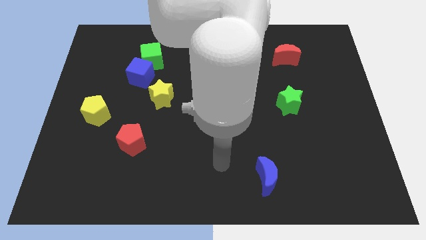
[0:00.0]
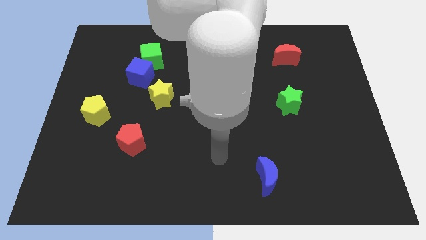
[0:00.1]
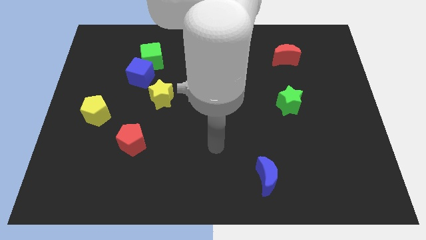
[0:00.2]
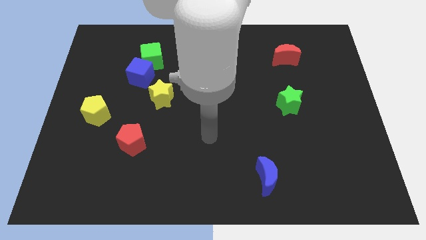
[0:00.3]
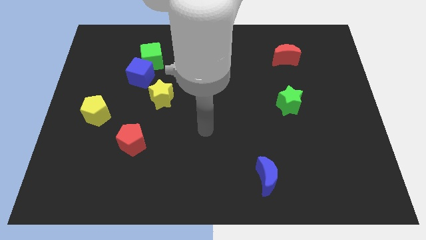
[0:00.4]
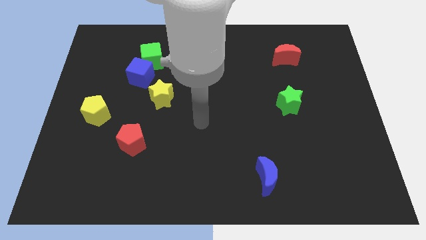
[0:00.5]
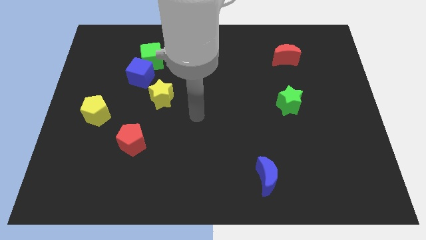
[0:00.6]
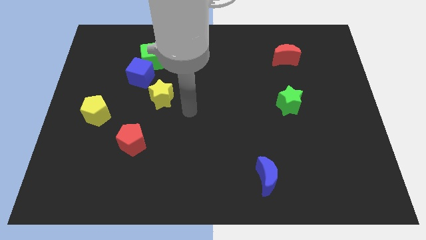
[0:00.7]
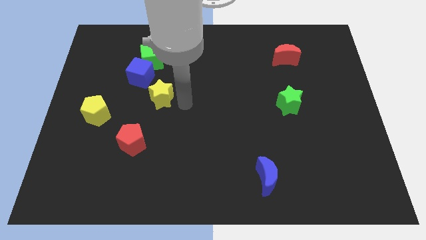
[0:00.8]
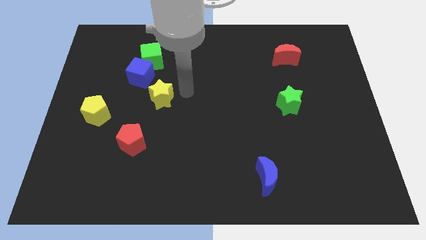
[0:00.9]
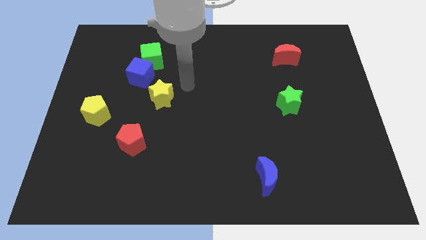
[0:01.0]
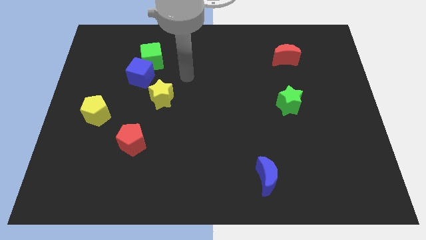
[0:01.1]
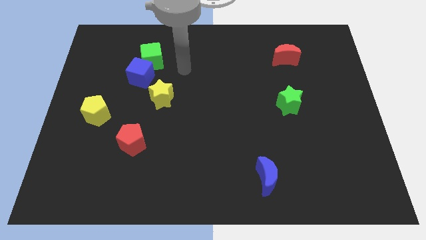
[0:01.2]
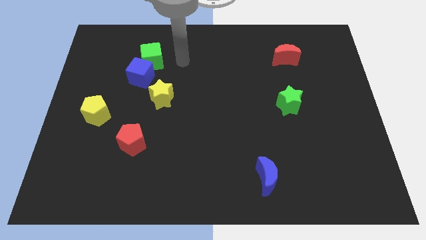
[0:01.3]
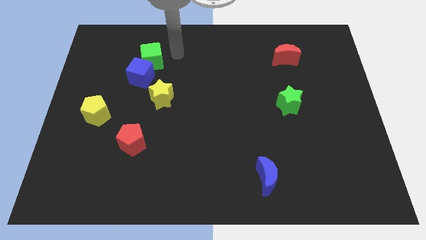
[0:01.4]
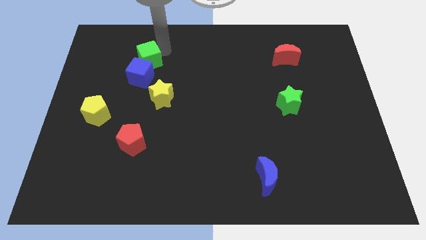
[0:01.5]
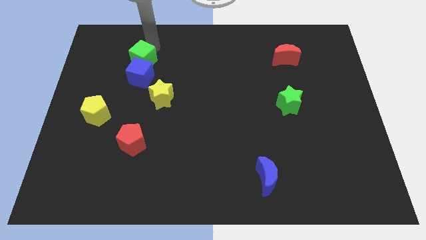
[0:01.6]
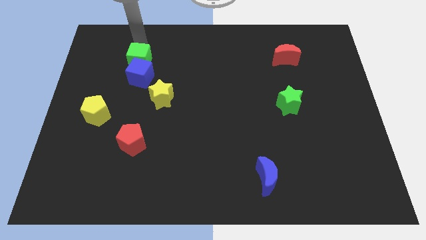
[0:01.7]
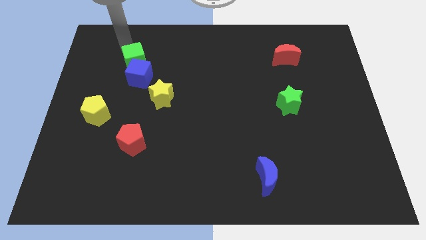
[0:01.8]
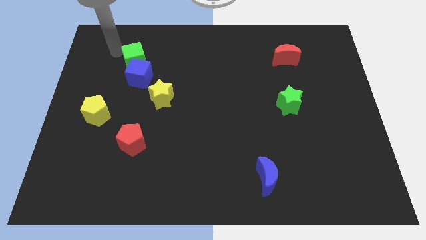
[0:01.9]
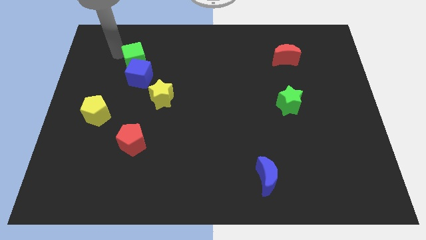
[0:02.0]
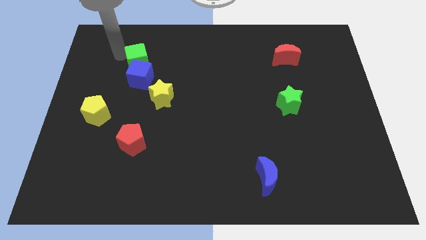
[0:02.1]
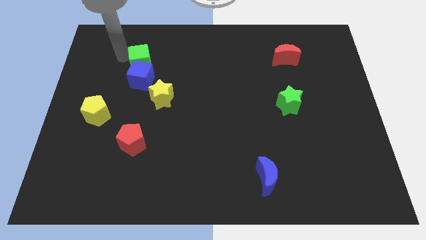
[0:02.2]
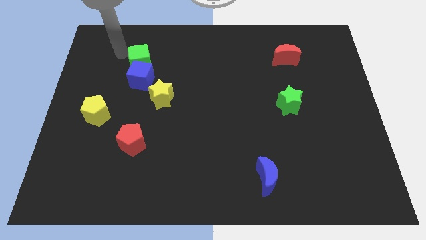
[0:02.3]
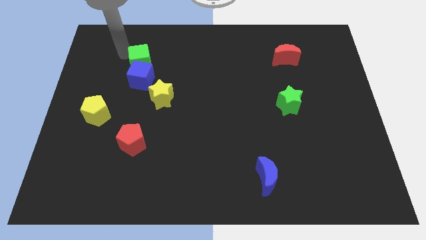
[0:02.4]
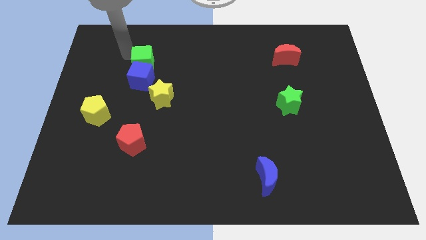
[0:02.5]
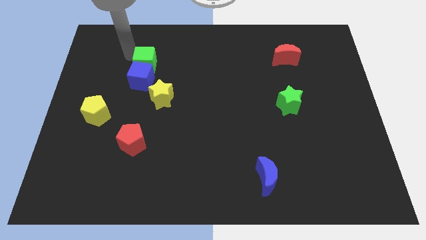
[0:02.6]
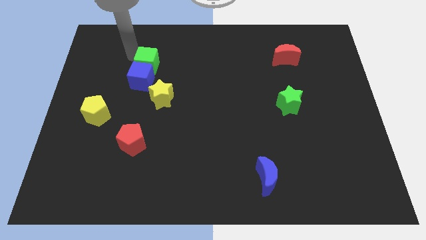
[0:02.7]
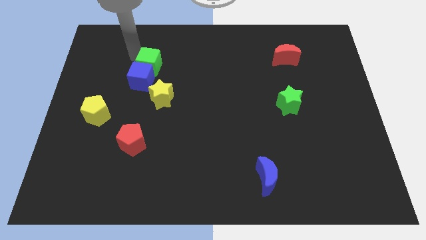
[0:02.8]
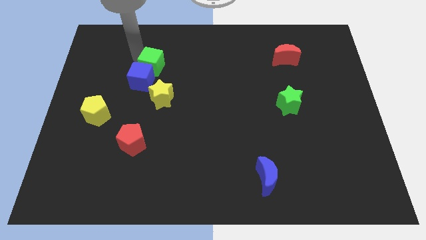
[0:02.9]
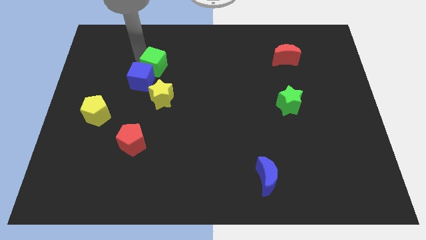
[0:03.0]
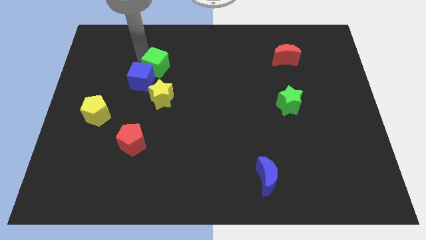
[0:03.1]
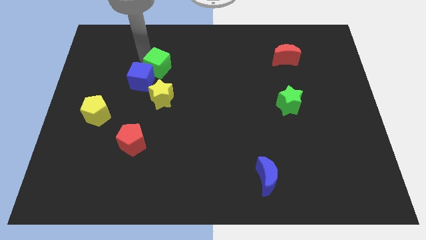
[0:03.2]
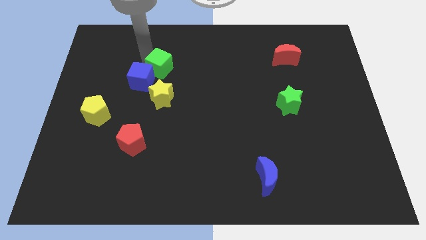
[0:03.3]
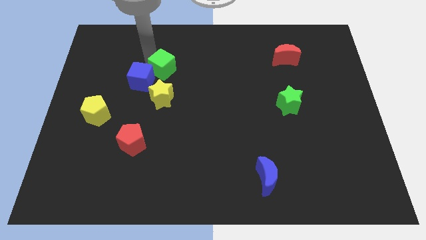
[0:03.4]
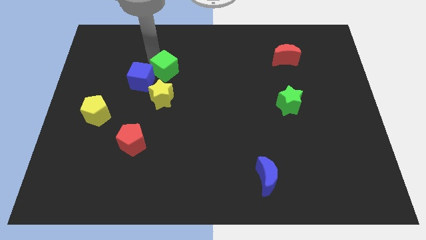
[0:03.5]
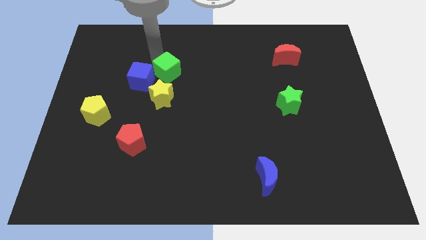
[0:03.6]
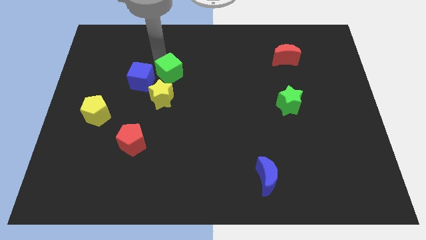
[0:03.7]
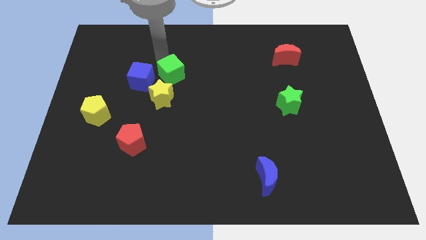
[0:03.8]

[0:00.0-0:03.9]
slightly push the green cube down and then to the right

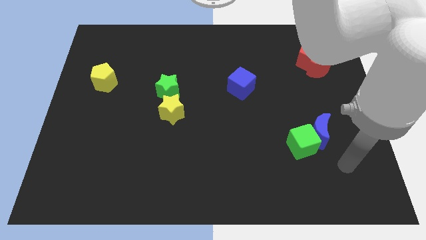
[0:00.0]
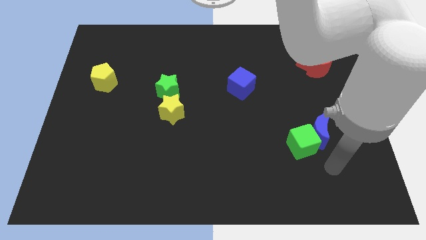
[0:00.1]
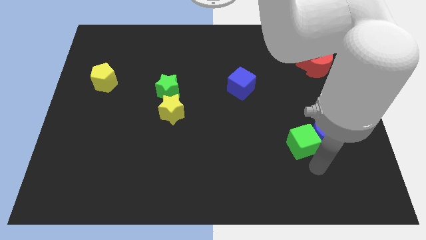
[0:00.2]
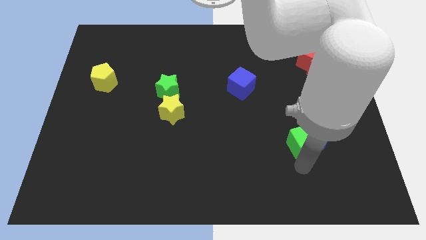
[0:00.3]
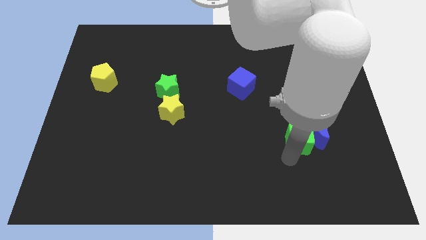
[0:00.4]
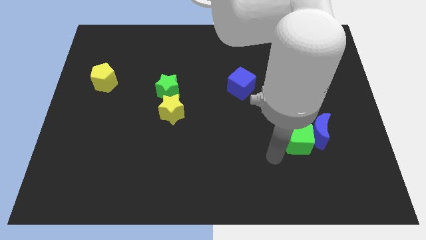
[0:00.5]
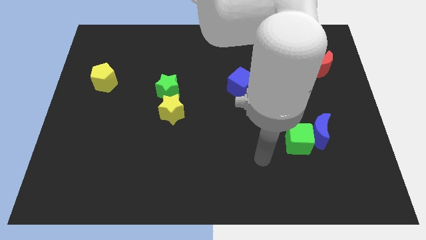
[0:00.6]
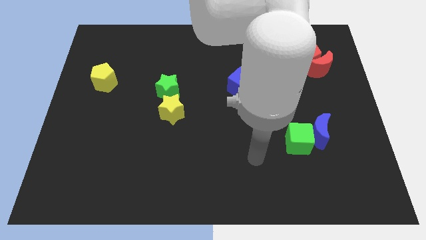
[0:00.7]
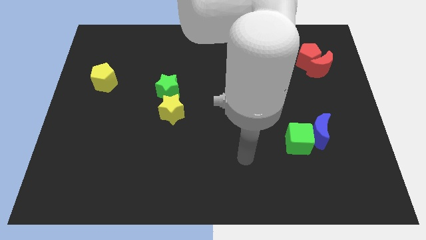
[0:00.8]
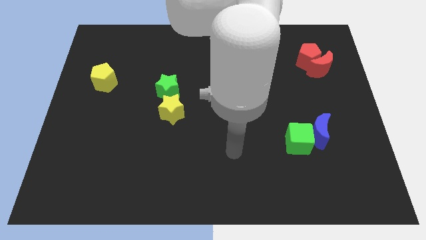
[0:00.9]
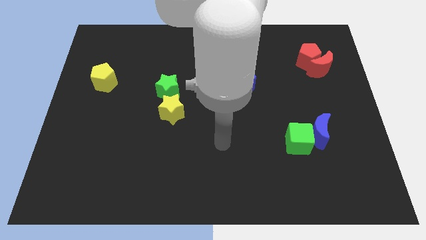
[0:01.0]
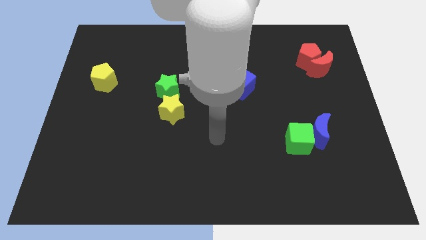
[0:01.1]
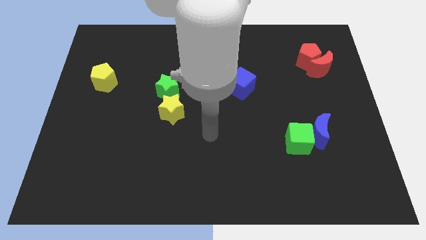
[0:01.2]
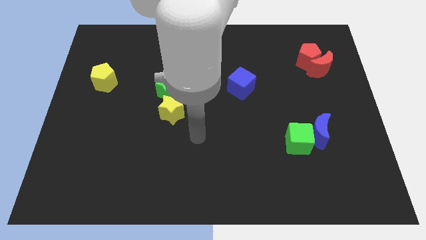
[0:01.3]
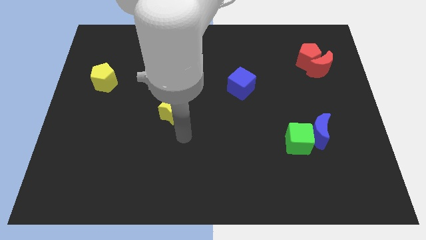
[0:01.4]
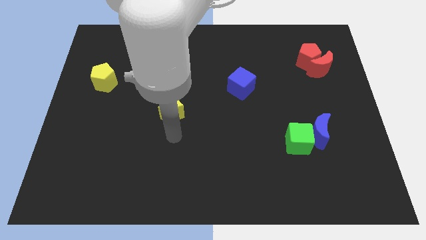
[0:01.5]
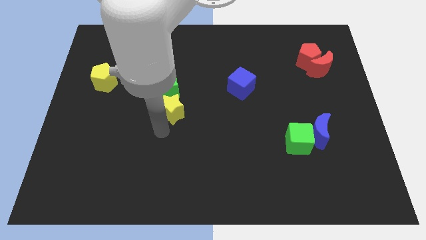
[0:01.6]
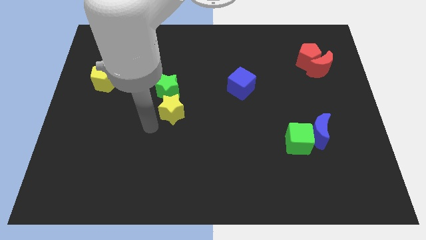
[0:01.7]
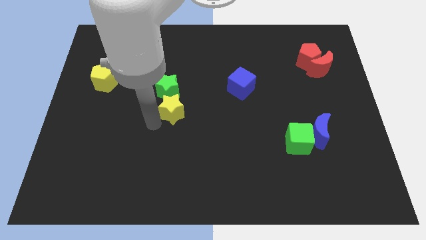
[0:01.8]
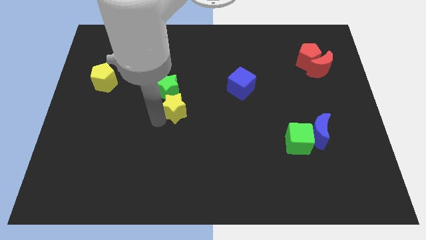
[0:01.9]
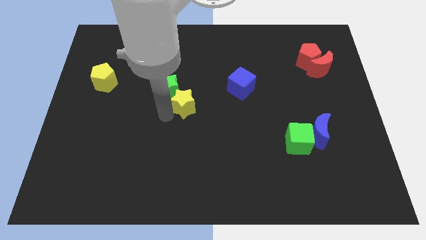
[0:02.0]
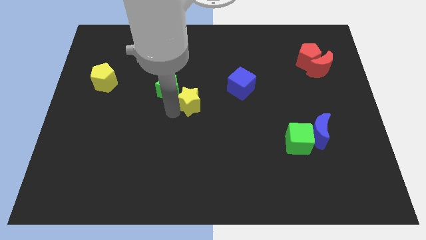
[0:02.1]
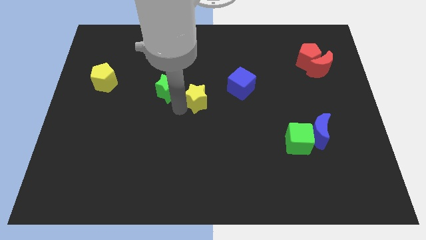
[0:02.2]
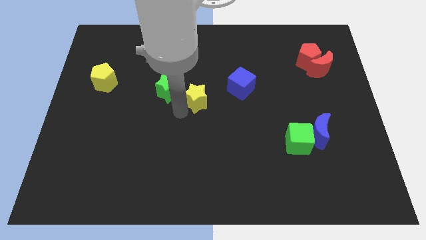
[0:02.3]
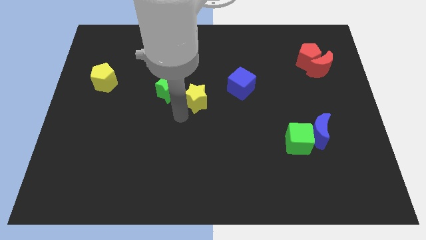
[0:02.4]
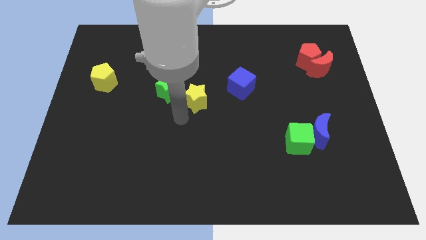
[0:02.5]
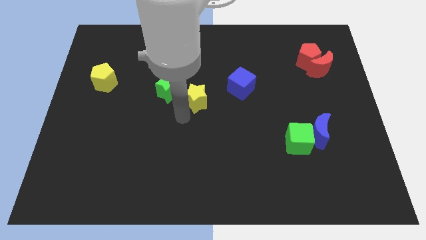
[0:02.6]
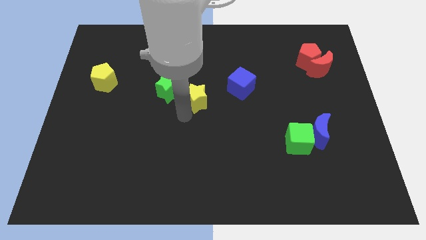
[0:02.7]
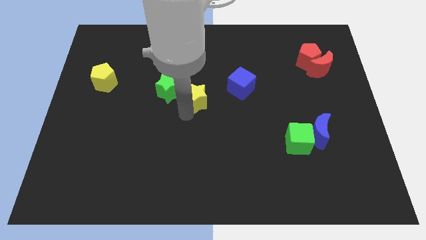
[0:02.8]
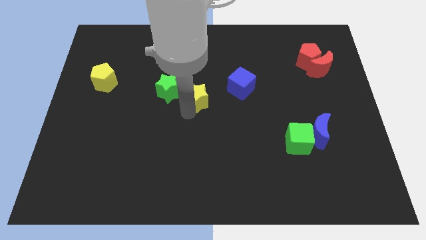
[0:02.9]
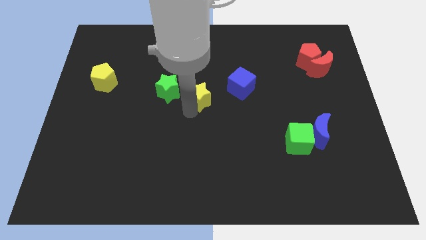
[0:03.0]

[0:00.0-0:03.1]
slightly push the yellow star upwards and right diagonally

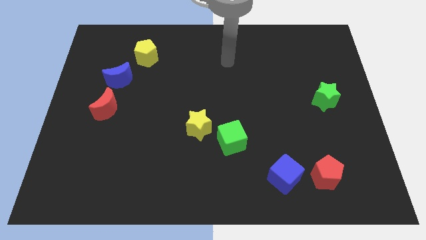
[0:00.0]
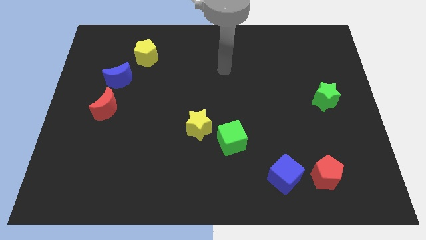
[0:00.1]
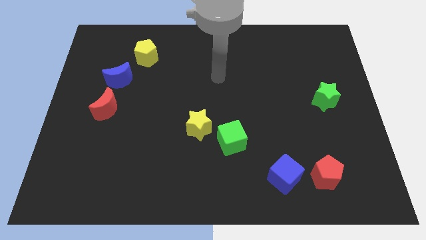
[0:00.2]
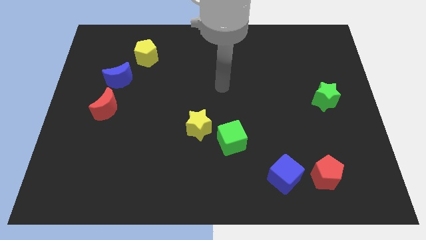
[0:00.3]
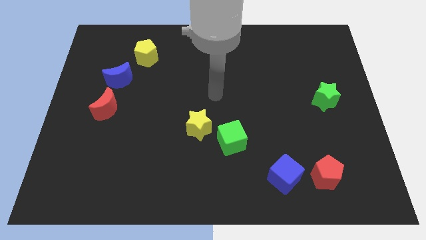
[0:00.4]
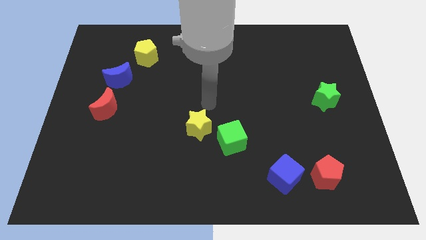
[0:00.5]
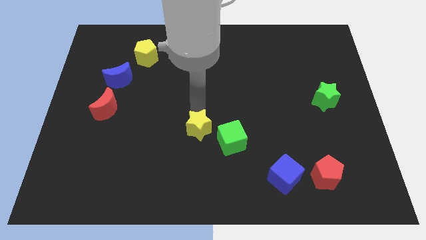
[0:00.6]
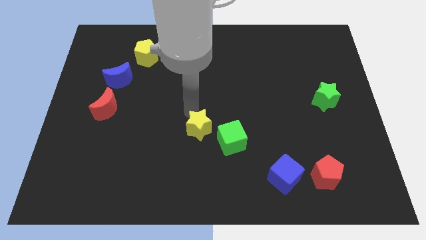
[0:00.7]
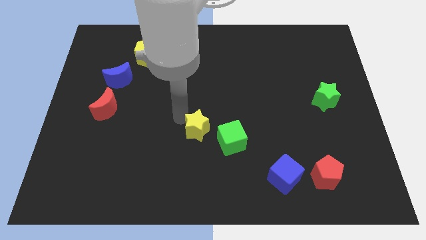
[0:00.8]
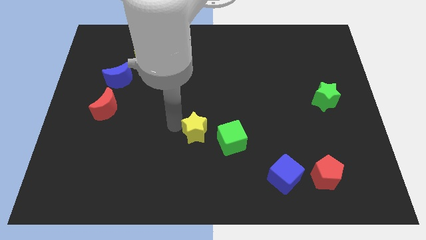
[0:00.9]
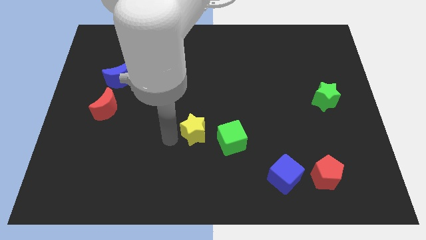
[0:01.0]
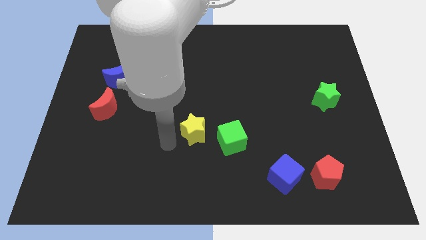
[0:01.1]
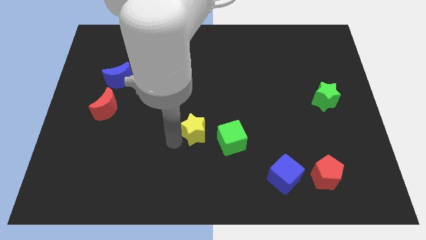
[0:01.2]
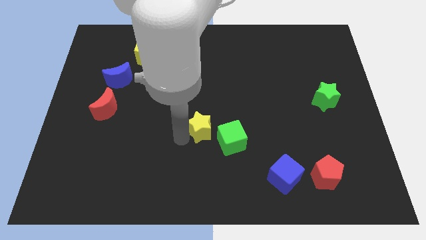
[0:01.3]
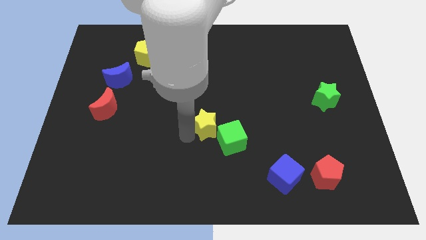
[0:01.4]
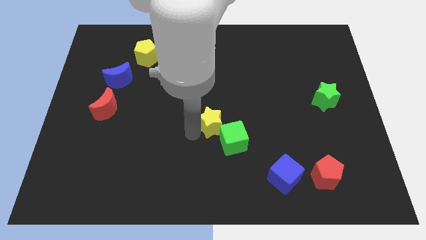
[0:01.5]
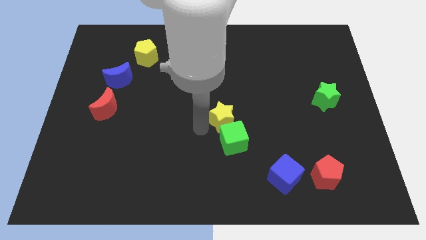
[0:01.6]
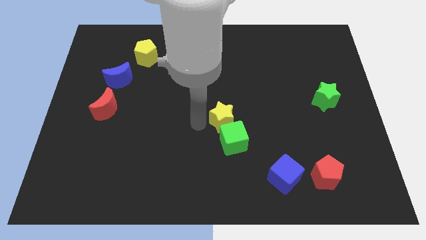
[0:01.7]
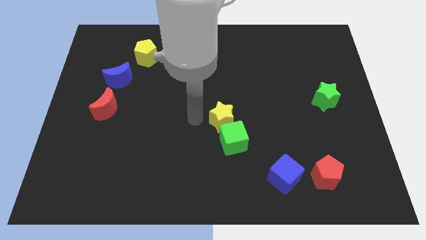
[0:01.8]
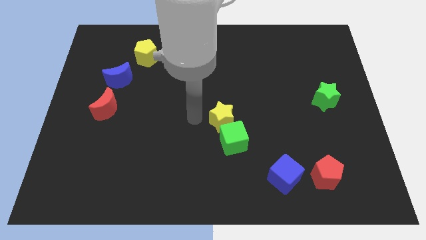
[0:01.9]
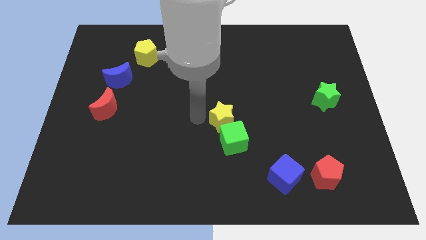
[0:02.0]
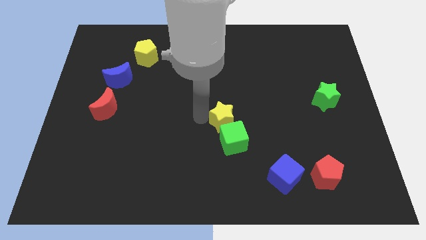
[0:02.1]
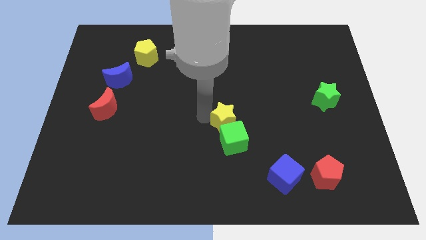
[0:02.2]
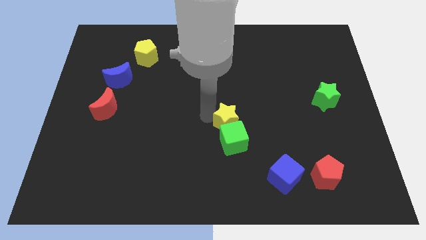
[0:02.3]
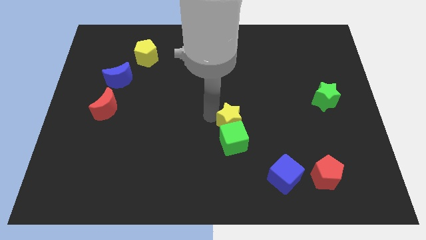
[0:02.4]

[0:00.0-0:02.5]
move the yellow star right slightly
